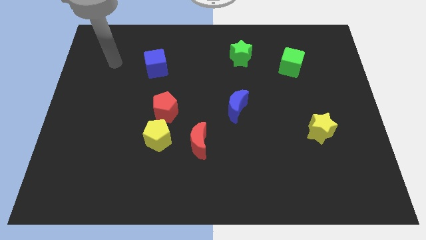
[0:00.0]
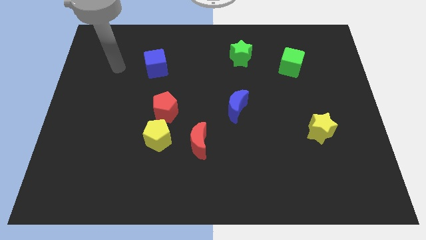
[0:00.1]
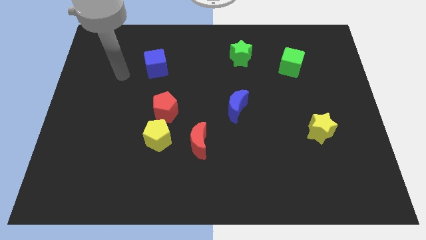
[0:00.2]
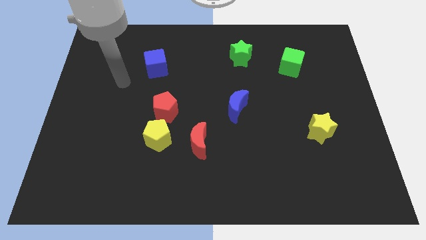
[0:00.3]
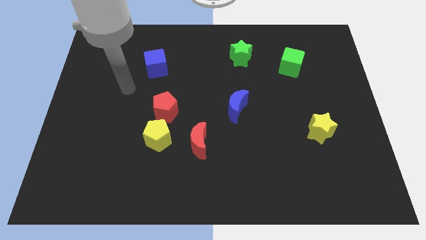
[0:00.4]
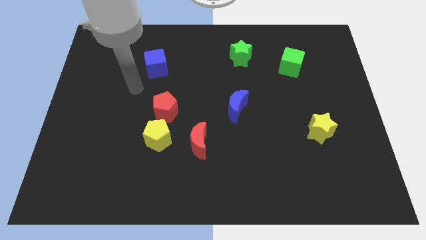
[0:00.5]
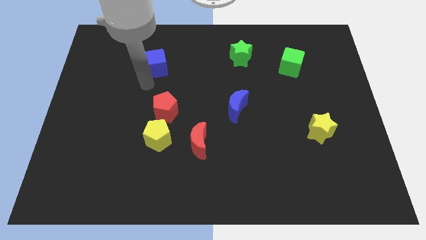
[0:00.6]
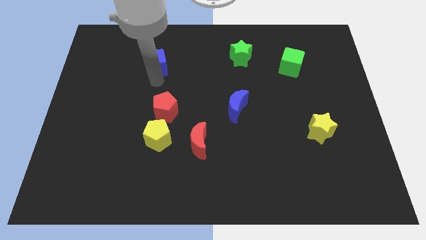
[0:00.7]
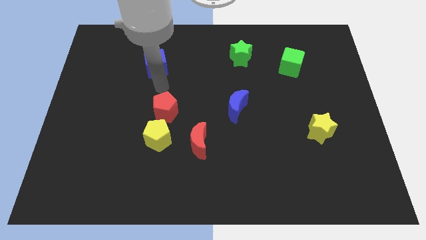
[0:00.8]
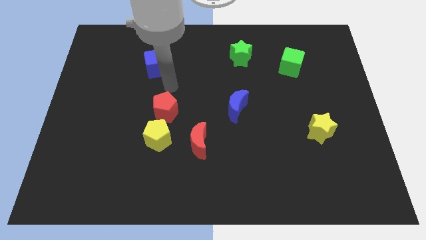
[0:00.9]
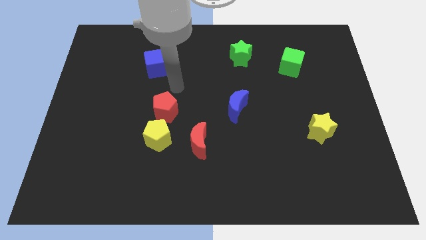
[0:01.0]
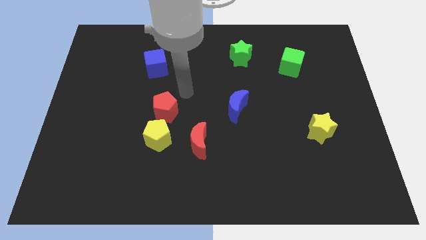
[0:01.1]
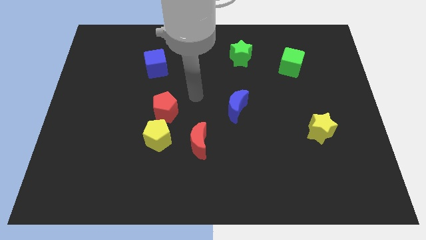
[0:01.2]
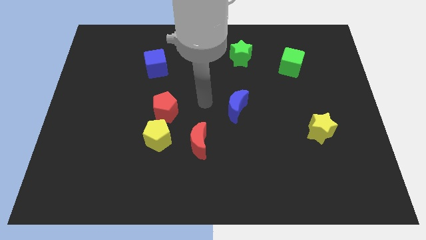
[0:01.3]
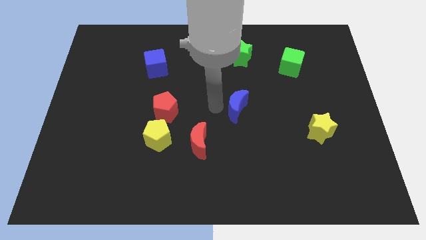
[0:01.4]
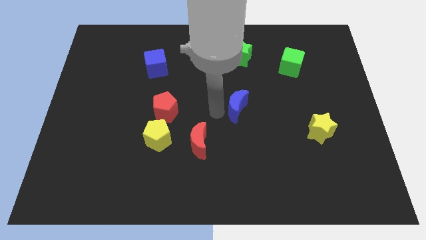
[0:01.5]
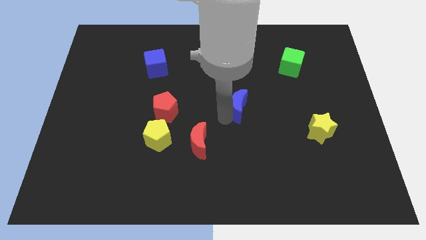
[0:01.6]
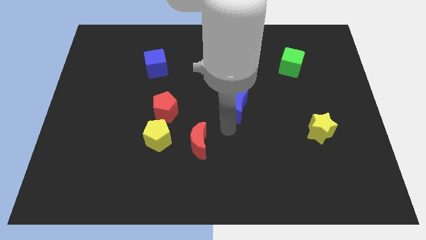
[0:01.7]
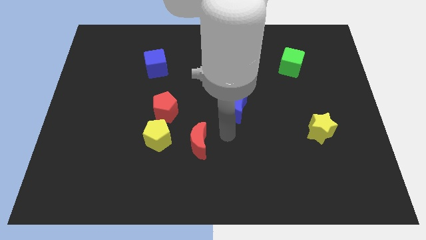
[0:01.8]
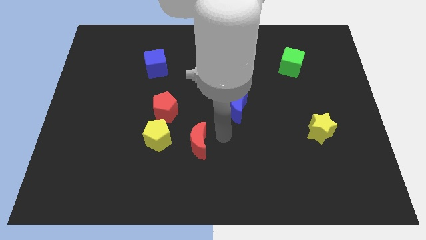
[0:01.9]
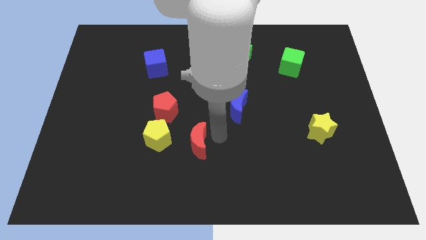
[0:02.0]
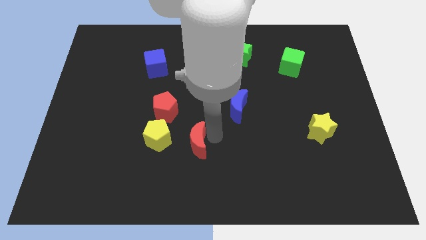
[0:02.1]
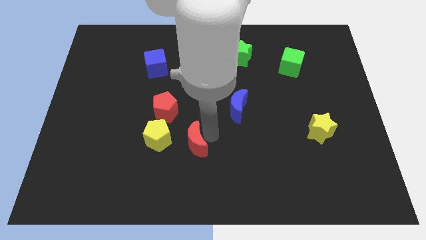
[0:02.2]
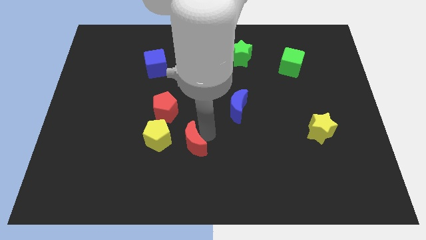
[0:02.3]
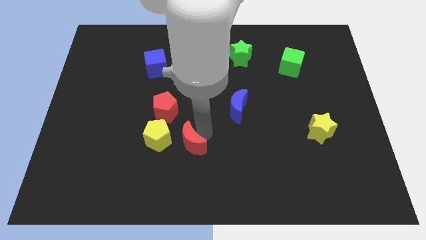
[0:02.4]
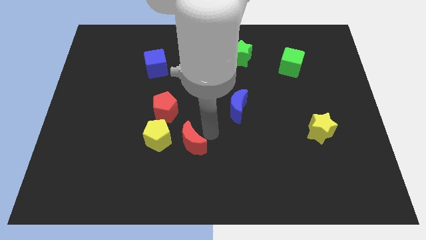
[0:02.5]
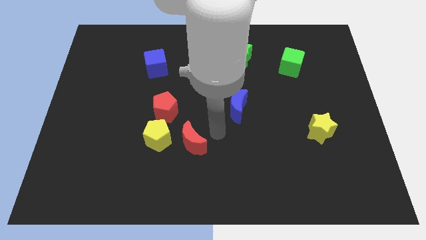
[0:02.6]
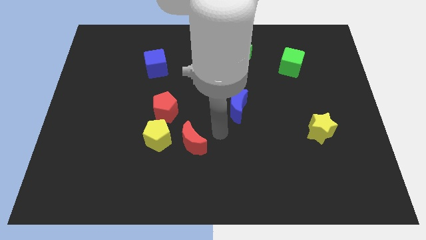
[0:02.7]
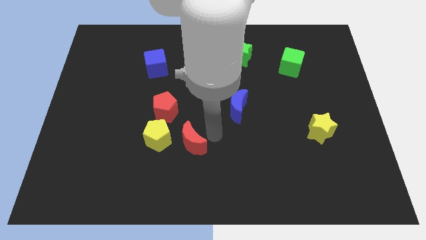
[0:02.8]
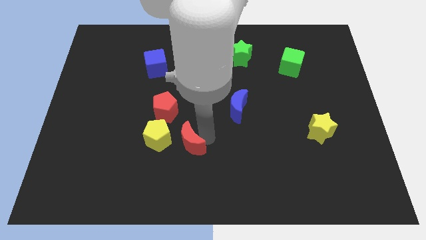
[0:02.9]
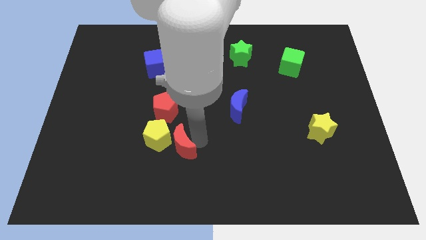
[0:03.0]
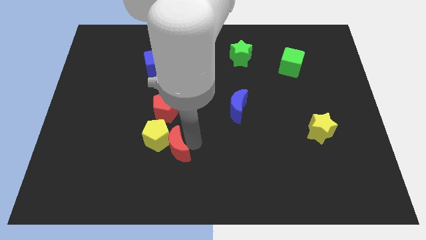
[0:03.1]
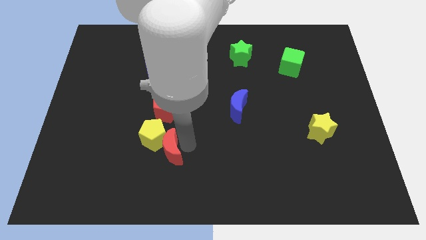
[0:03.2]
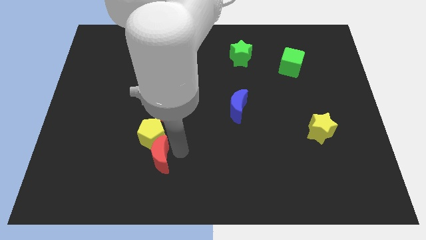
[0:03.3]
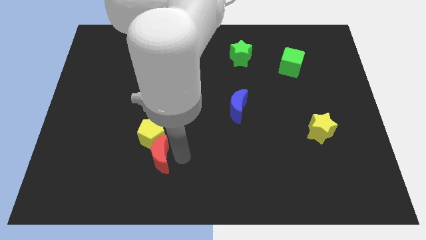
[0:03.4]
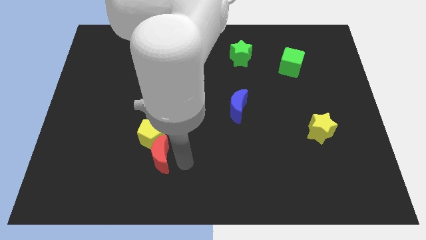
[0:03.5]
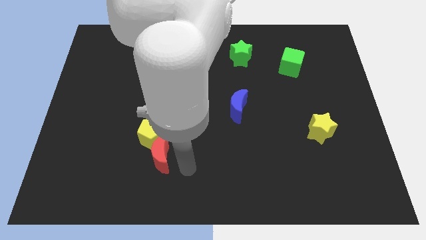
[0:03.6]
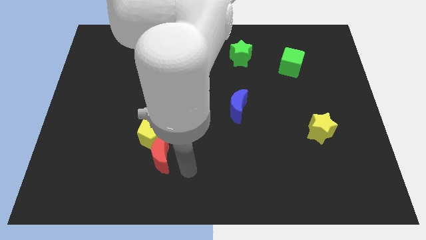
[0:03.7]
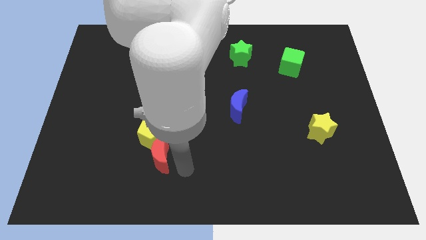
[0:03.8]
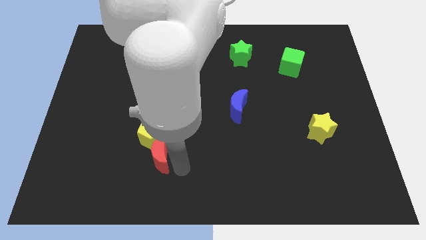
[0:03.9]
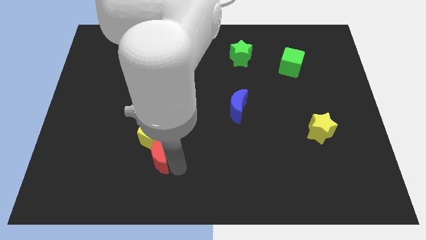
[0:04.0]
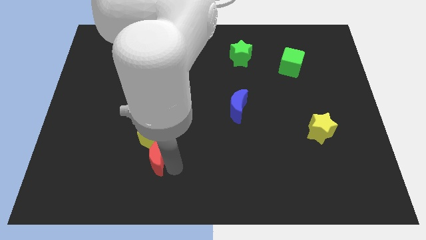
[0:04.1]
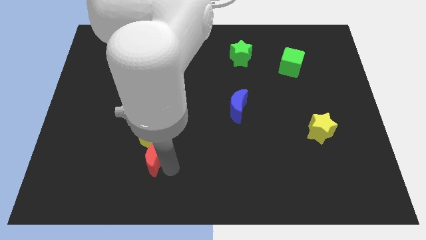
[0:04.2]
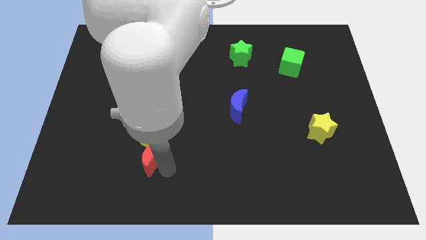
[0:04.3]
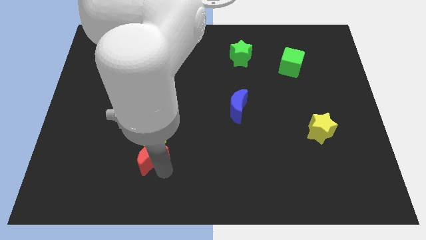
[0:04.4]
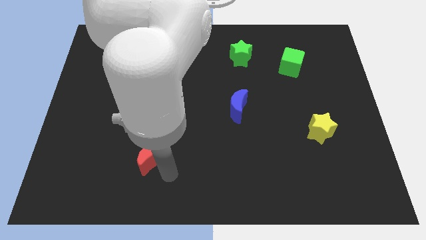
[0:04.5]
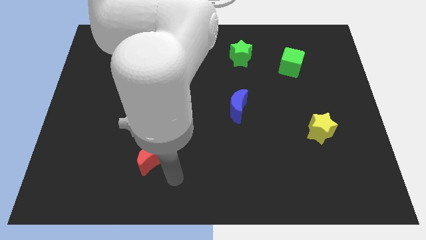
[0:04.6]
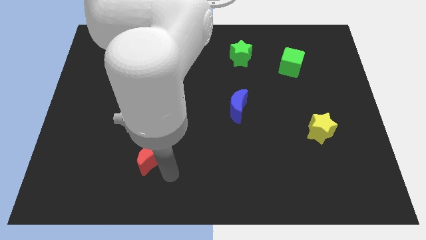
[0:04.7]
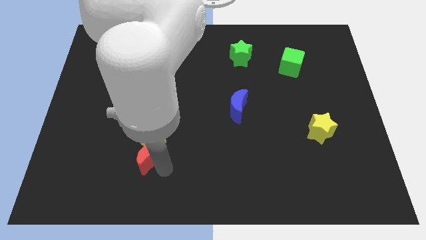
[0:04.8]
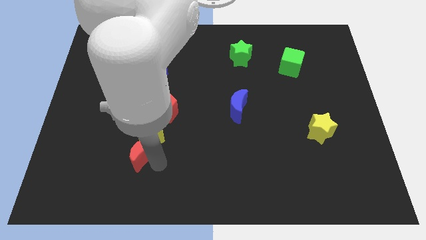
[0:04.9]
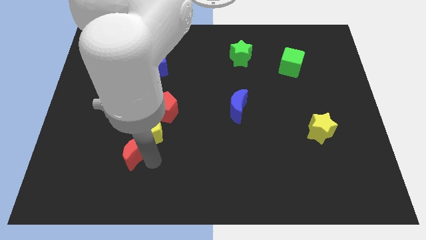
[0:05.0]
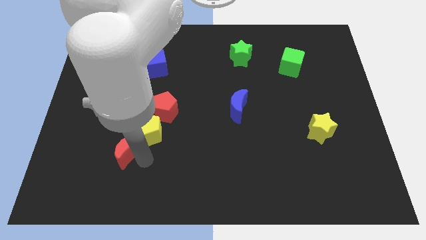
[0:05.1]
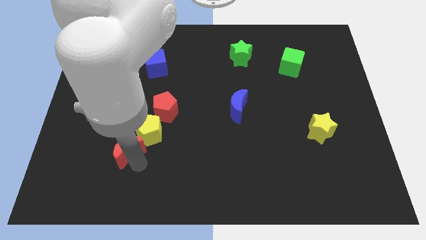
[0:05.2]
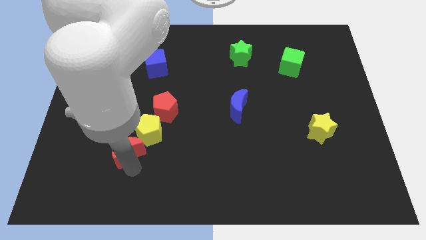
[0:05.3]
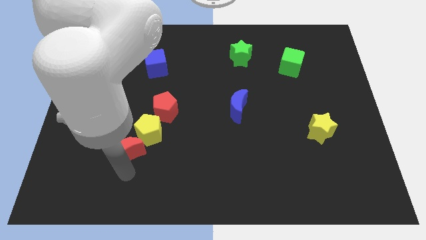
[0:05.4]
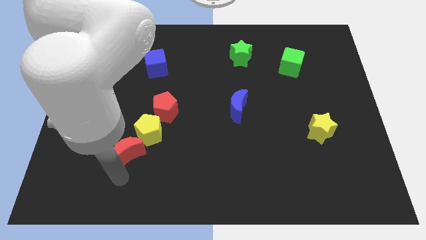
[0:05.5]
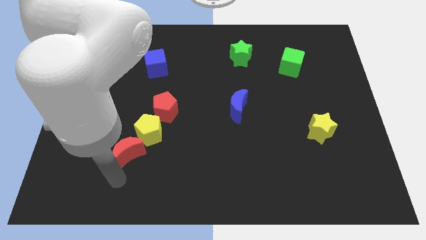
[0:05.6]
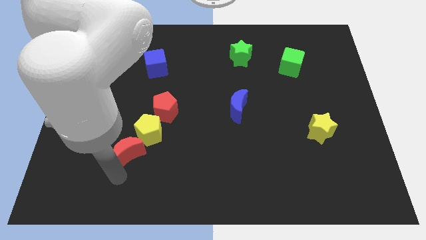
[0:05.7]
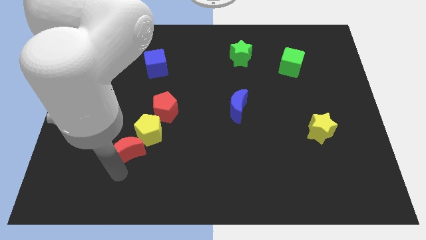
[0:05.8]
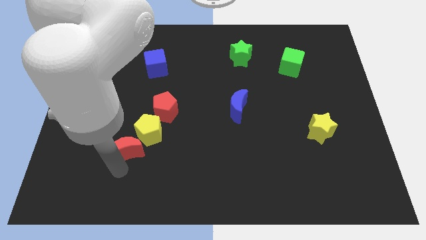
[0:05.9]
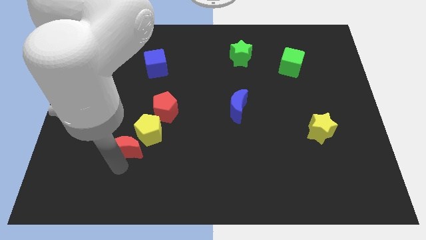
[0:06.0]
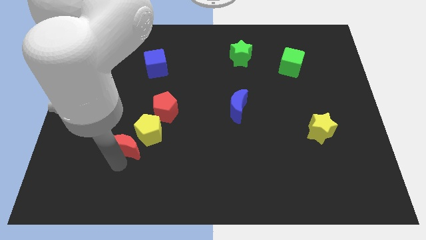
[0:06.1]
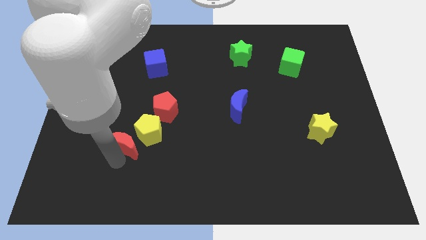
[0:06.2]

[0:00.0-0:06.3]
move the red moon to the bottom left side of the red pentagon

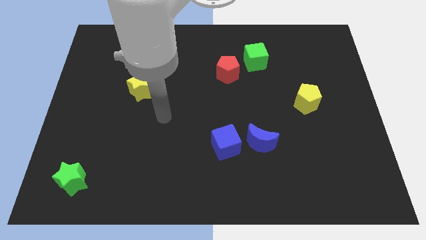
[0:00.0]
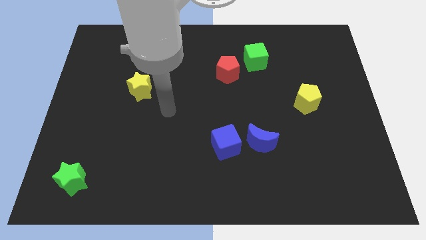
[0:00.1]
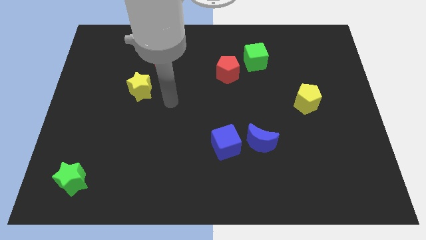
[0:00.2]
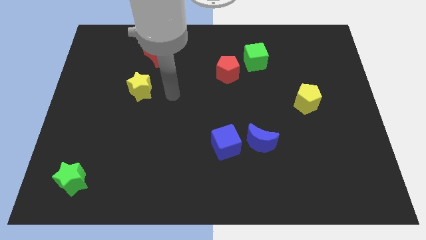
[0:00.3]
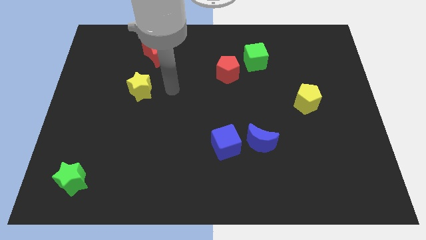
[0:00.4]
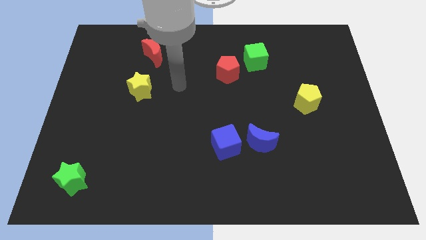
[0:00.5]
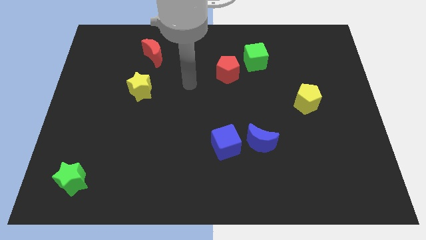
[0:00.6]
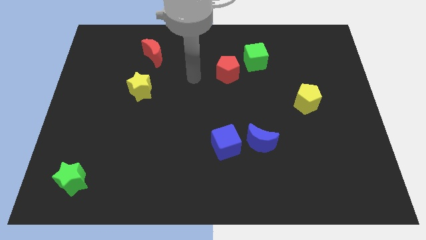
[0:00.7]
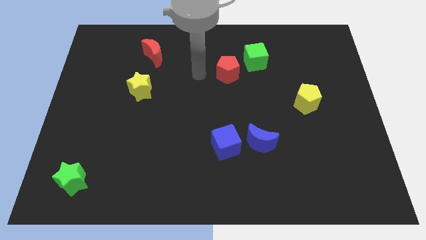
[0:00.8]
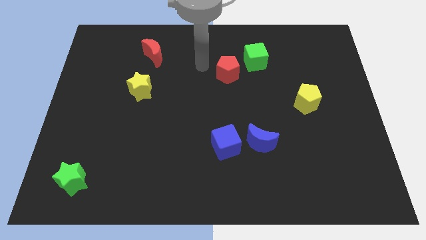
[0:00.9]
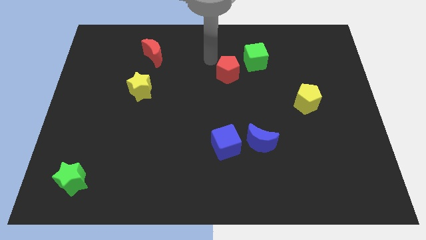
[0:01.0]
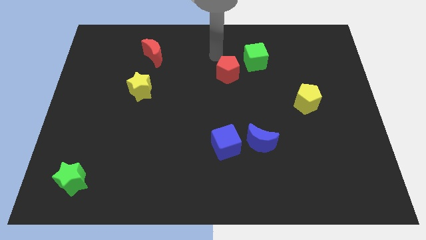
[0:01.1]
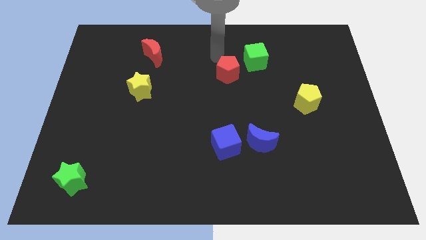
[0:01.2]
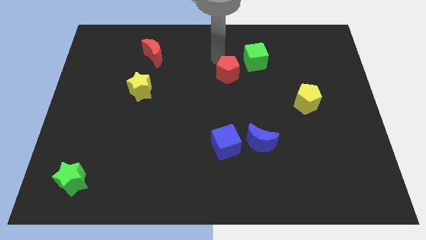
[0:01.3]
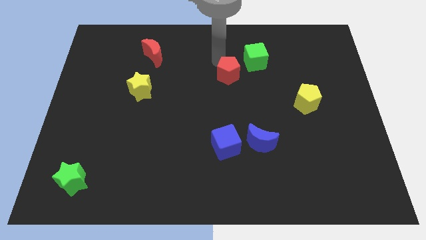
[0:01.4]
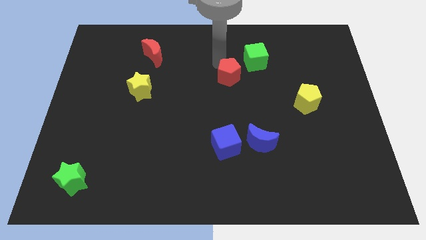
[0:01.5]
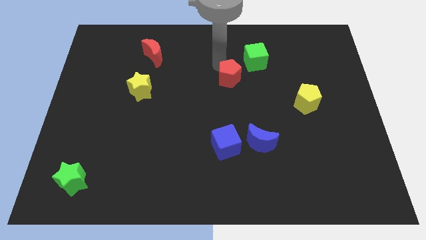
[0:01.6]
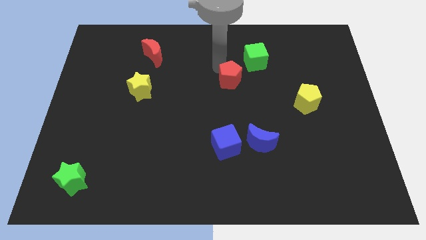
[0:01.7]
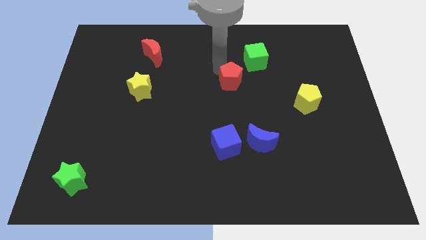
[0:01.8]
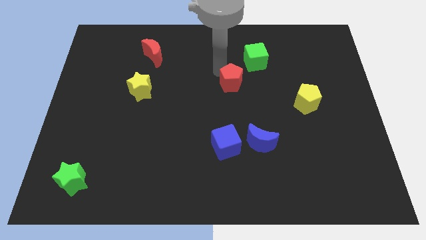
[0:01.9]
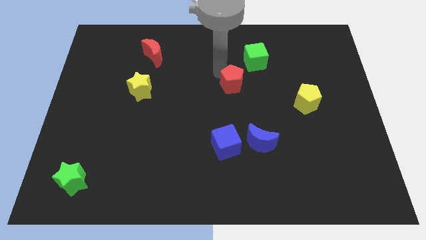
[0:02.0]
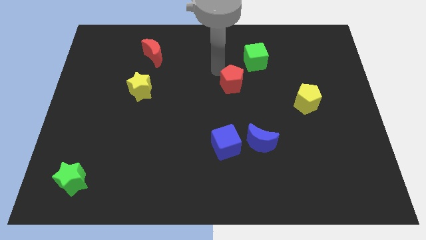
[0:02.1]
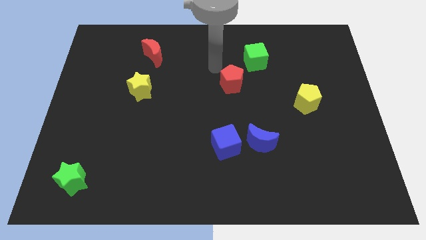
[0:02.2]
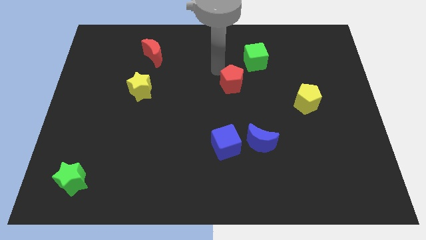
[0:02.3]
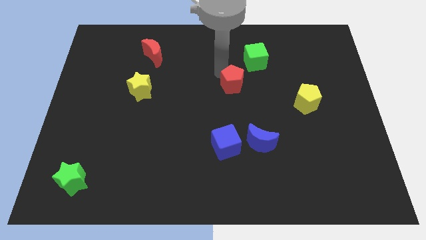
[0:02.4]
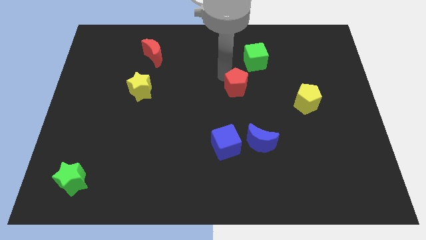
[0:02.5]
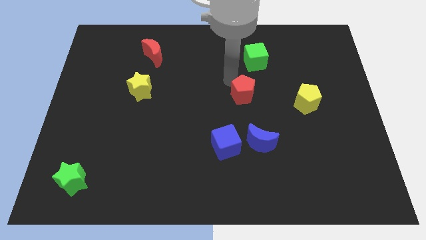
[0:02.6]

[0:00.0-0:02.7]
move the red pentagon to the top side of the blue moon
